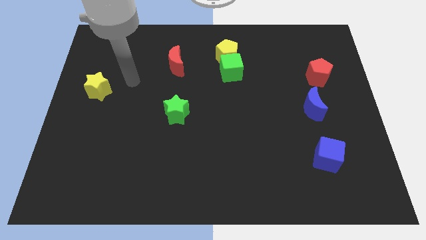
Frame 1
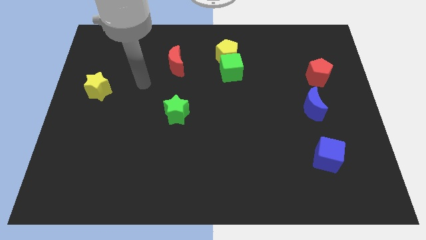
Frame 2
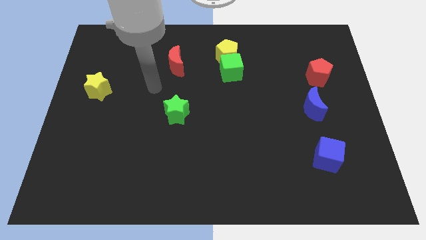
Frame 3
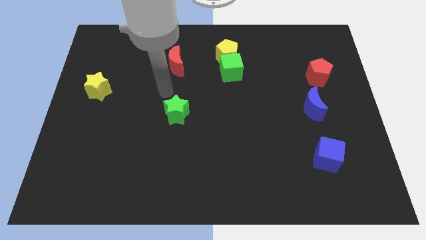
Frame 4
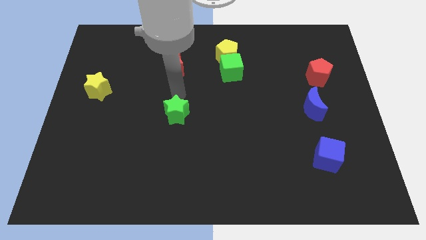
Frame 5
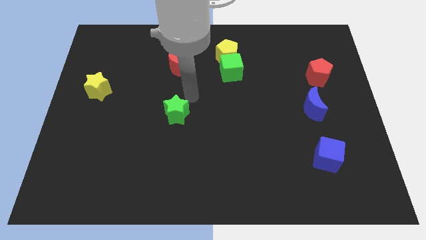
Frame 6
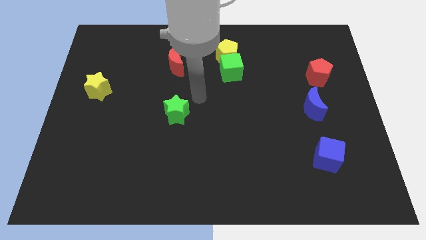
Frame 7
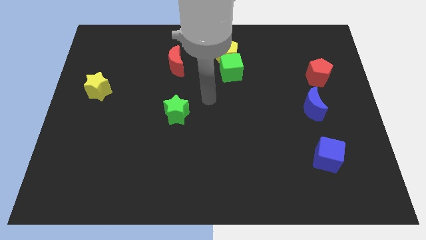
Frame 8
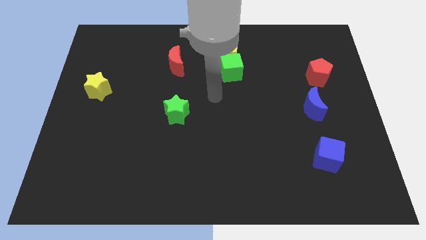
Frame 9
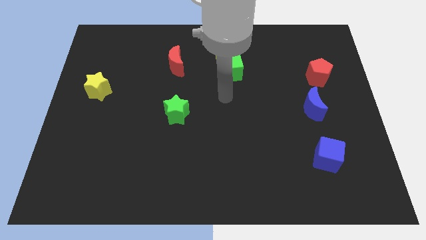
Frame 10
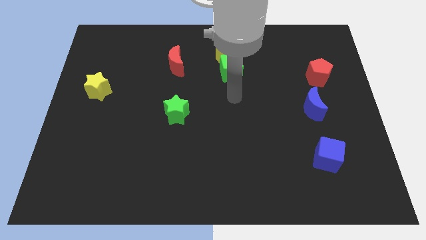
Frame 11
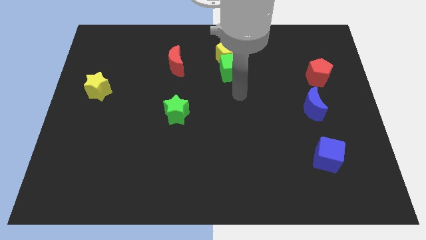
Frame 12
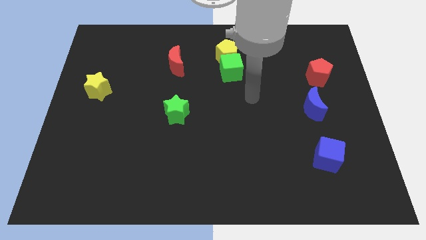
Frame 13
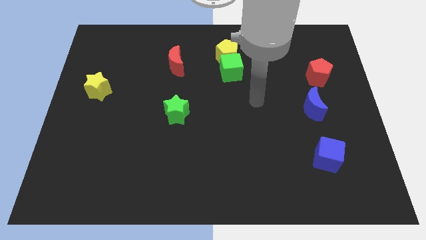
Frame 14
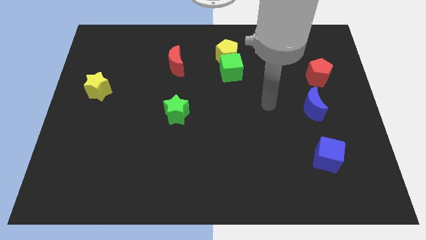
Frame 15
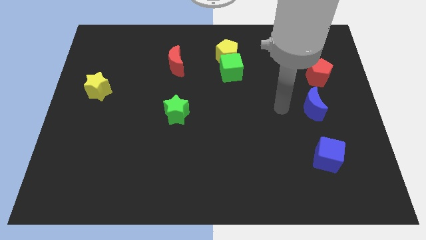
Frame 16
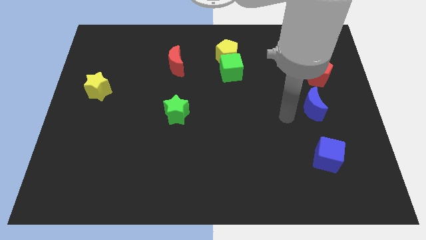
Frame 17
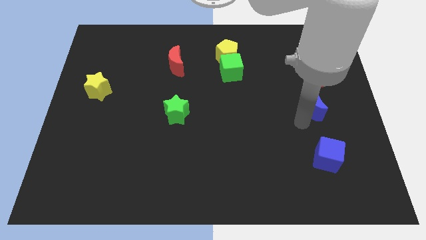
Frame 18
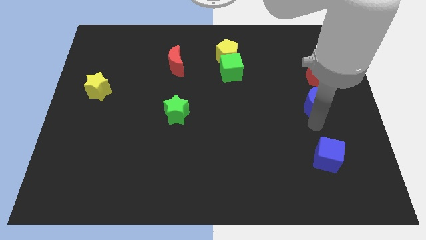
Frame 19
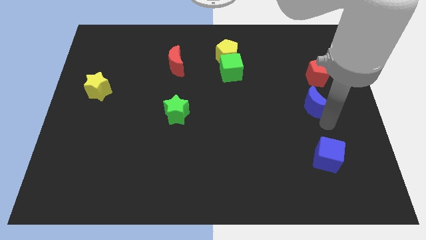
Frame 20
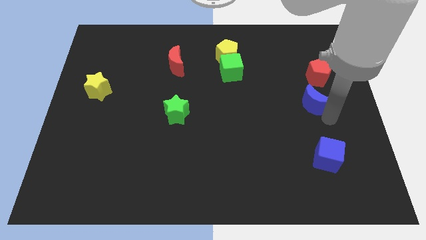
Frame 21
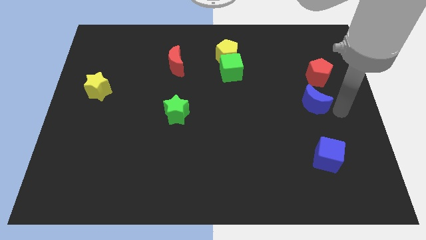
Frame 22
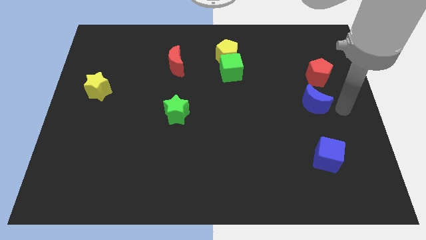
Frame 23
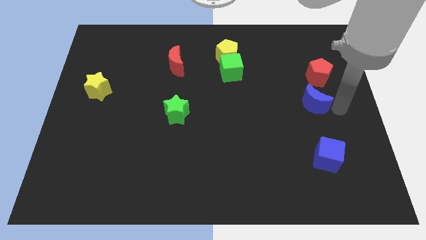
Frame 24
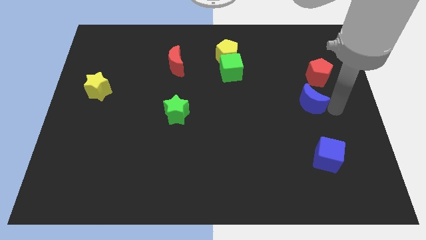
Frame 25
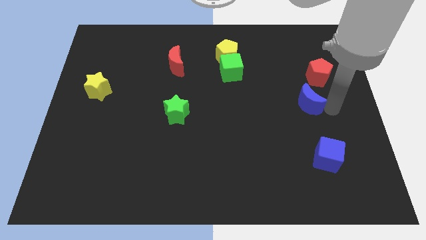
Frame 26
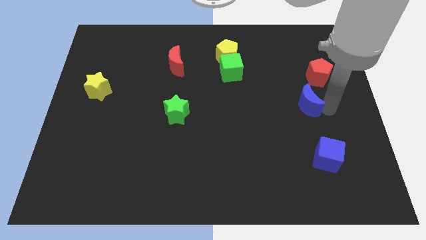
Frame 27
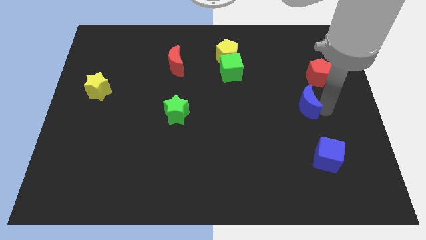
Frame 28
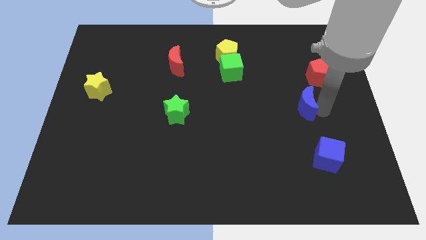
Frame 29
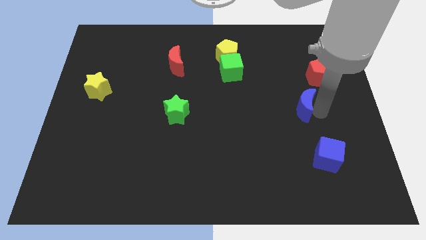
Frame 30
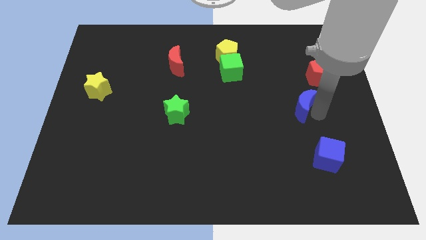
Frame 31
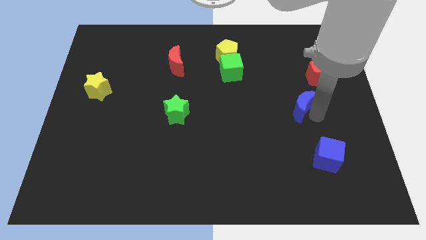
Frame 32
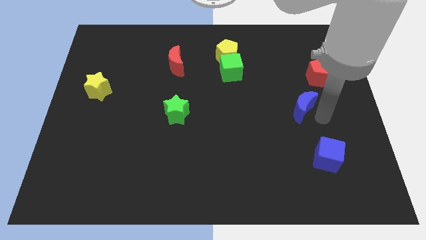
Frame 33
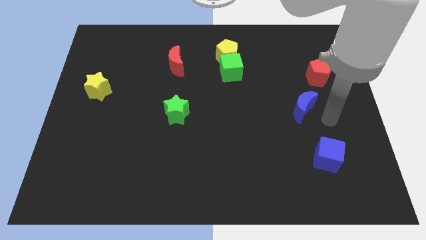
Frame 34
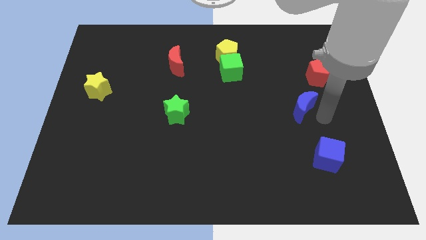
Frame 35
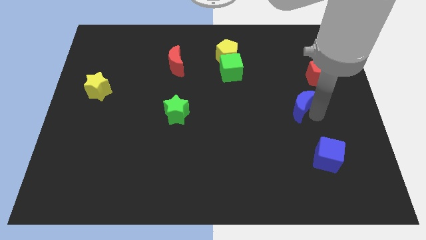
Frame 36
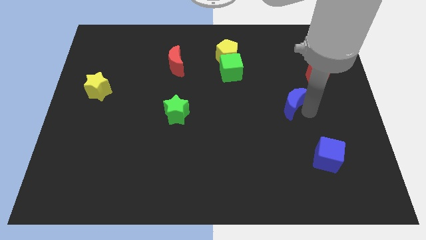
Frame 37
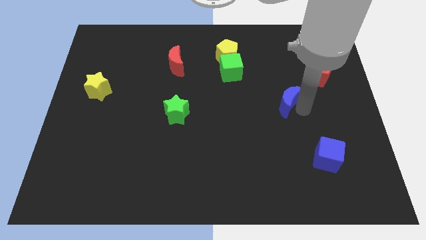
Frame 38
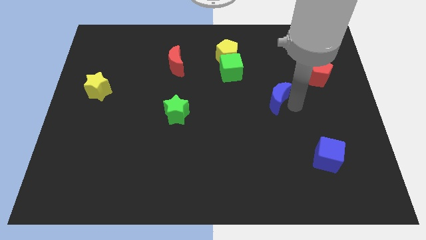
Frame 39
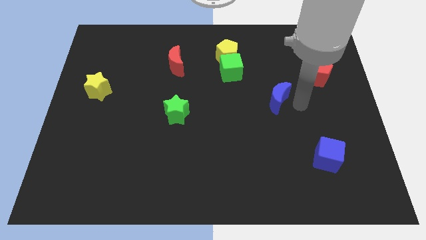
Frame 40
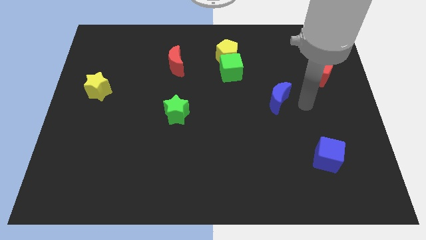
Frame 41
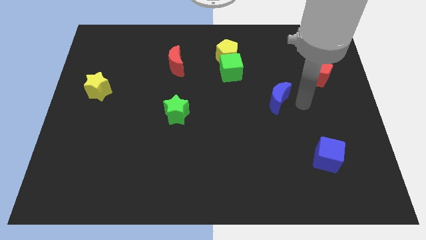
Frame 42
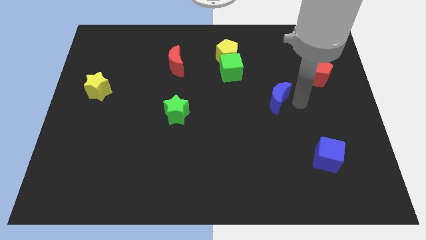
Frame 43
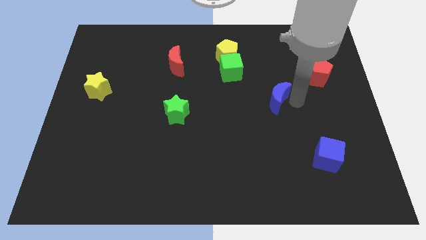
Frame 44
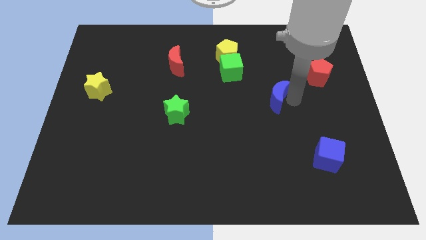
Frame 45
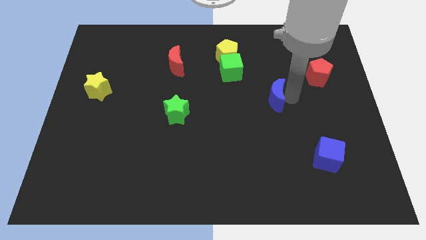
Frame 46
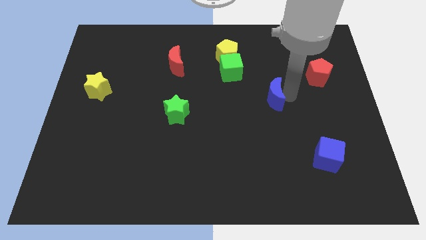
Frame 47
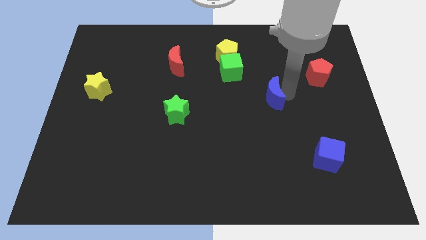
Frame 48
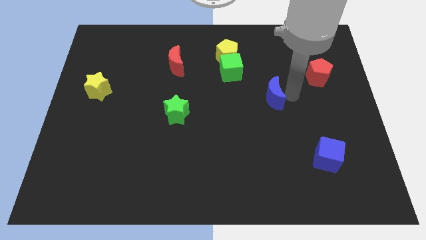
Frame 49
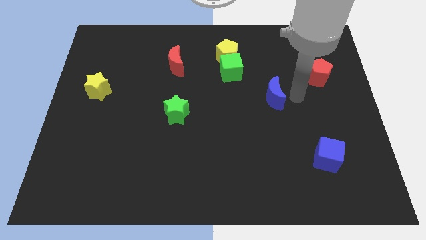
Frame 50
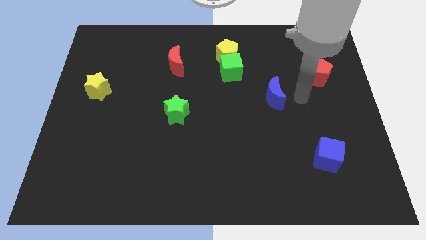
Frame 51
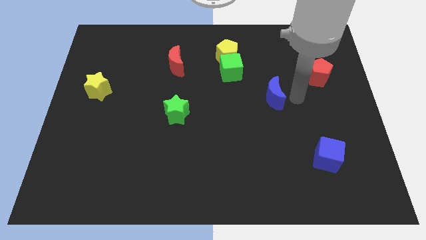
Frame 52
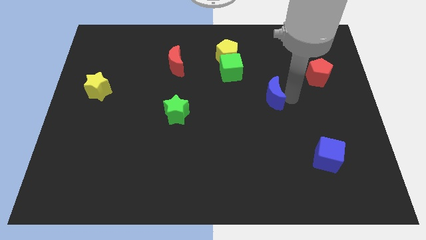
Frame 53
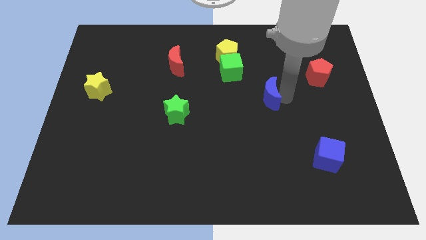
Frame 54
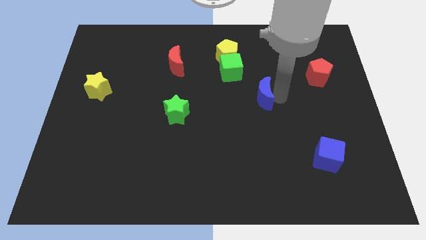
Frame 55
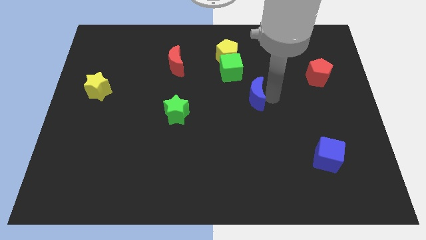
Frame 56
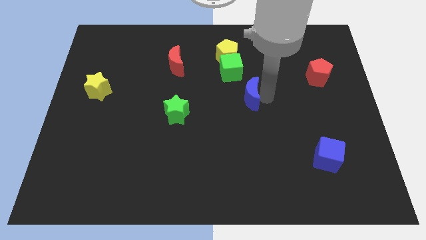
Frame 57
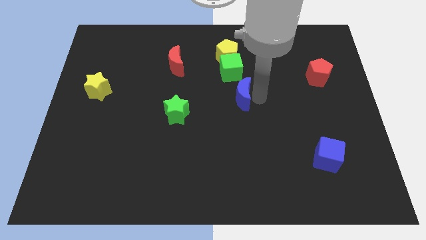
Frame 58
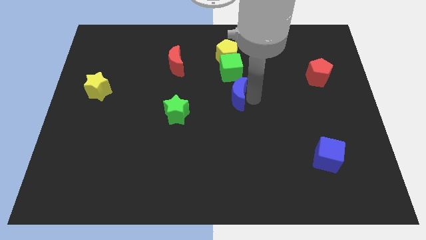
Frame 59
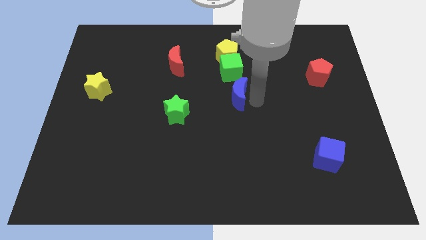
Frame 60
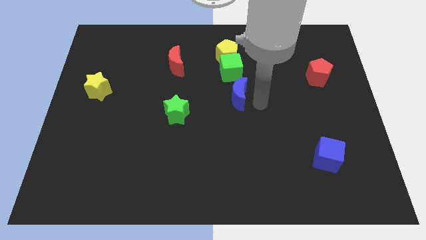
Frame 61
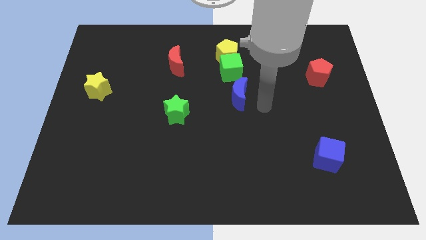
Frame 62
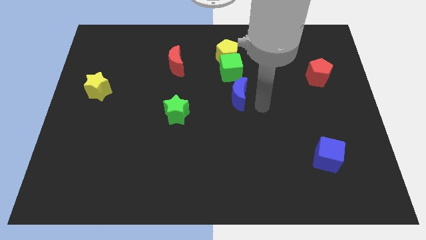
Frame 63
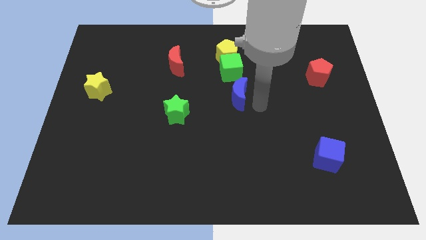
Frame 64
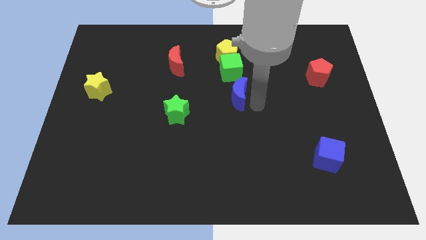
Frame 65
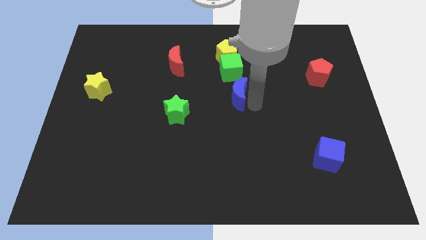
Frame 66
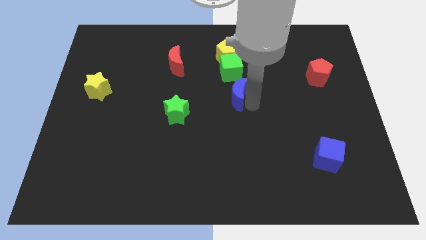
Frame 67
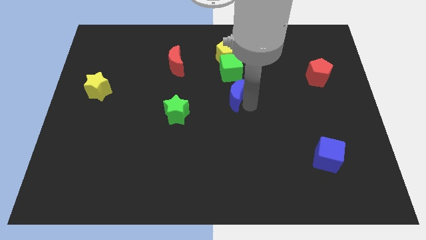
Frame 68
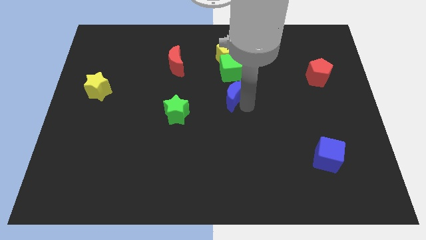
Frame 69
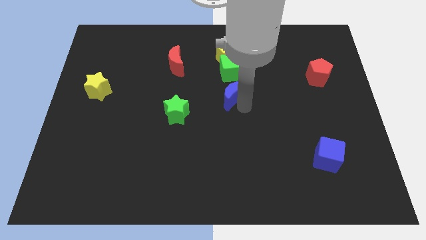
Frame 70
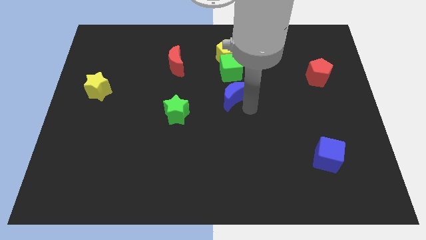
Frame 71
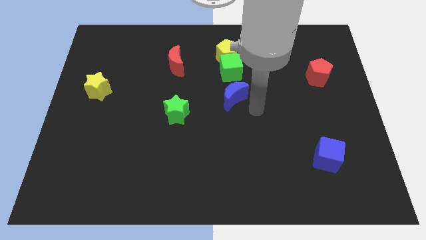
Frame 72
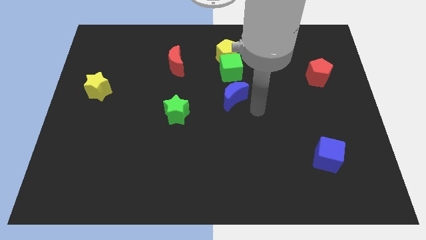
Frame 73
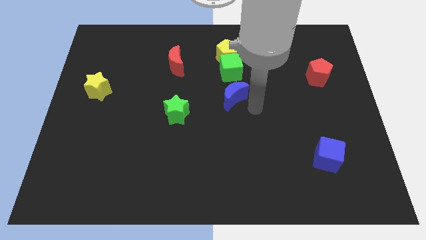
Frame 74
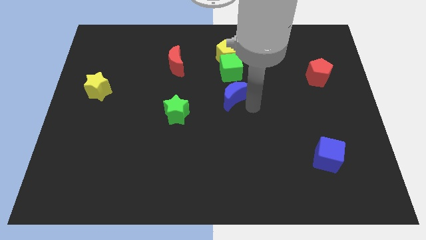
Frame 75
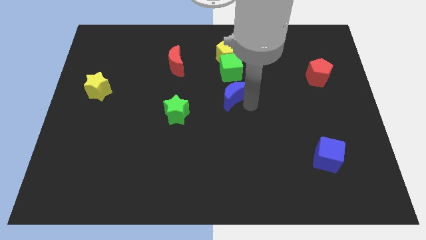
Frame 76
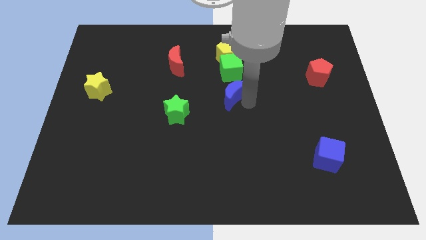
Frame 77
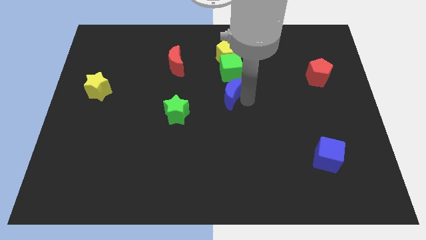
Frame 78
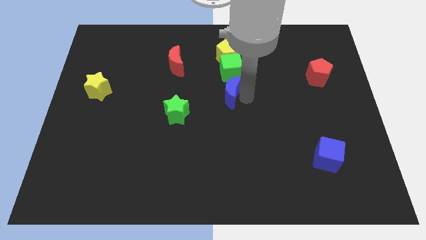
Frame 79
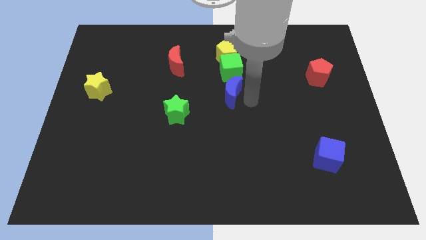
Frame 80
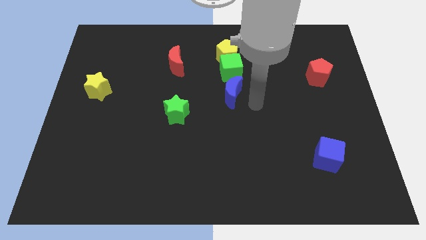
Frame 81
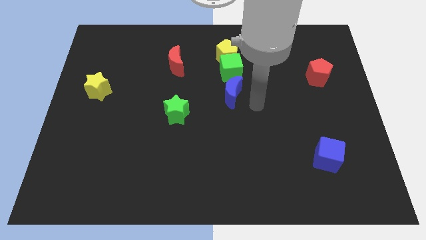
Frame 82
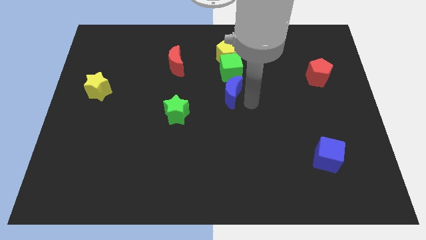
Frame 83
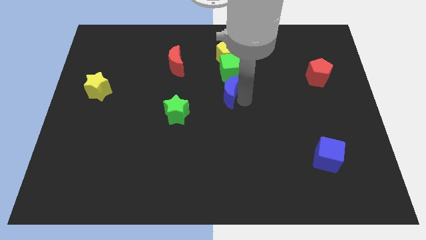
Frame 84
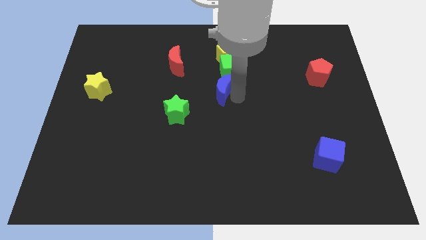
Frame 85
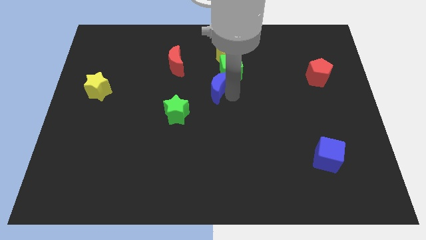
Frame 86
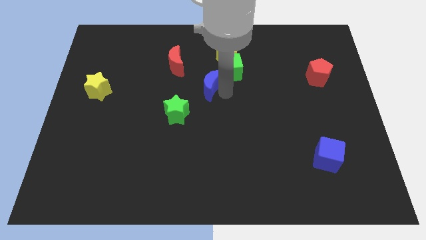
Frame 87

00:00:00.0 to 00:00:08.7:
move the blue moon to the bottom right side of the red moon
